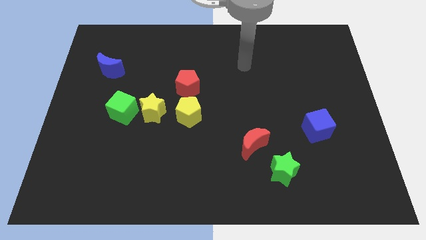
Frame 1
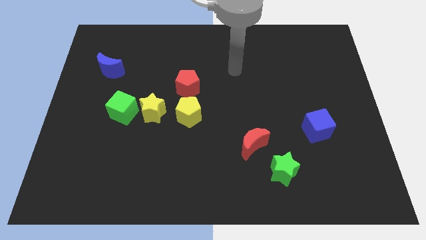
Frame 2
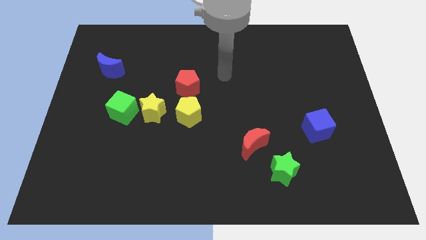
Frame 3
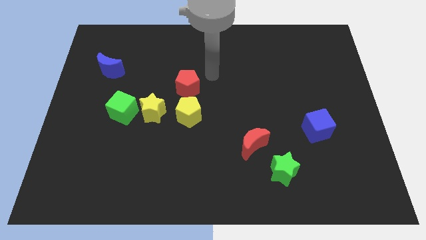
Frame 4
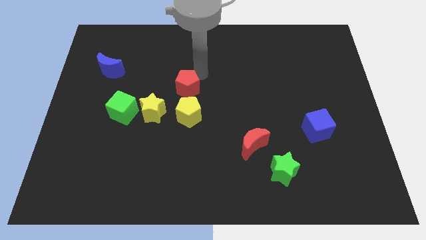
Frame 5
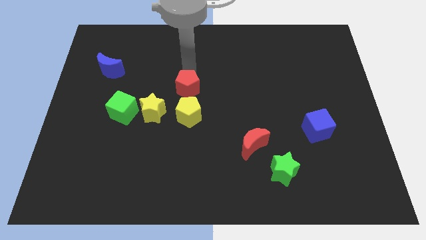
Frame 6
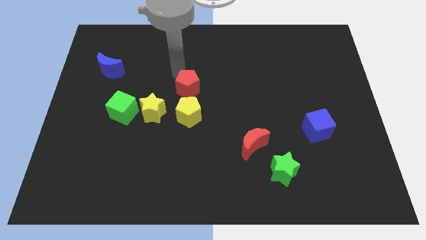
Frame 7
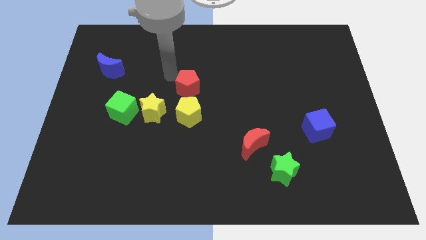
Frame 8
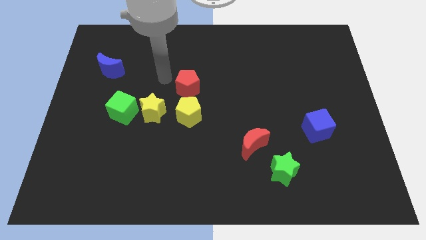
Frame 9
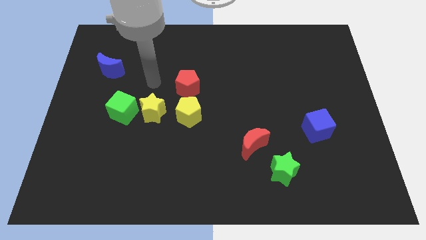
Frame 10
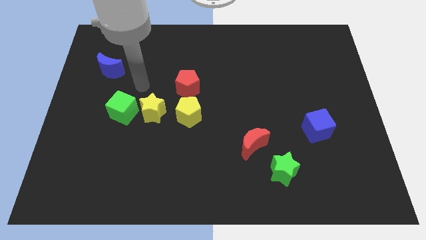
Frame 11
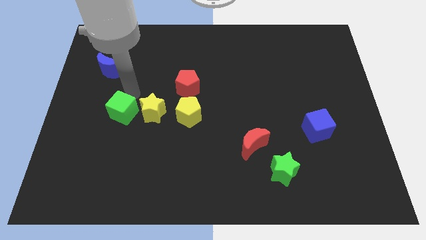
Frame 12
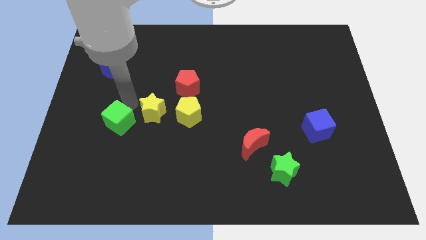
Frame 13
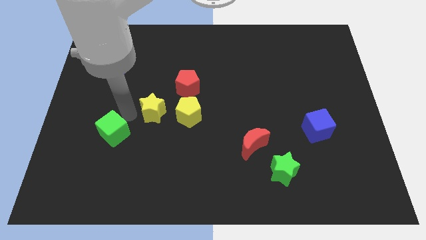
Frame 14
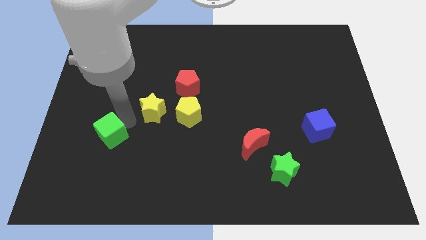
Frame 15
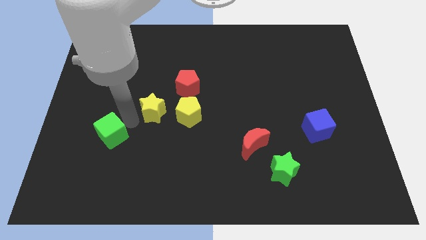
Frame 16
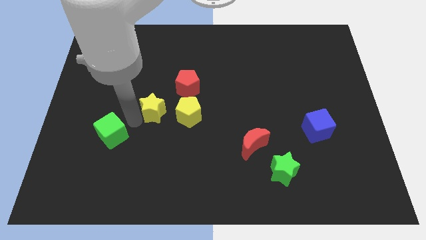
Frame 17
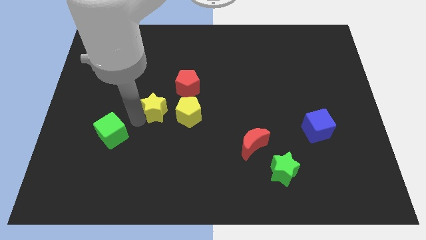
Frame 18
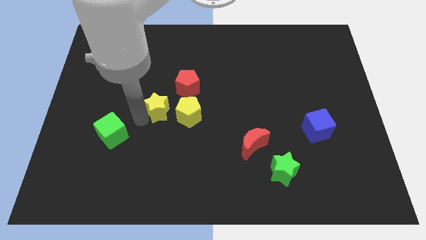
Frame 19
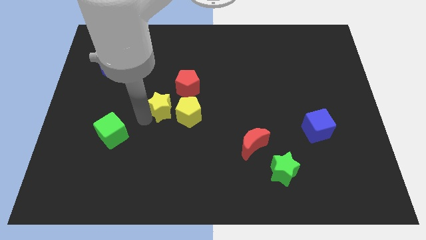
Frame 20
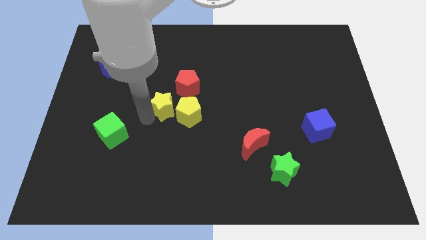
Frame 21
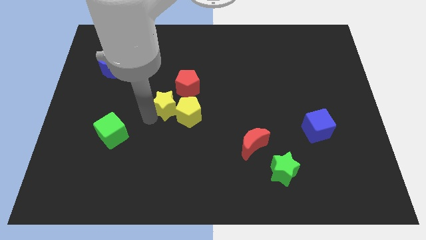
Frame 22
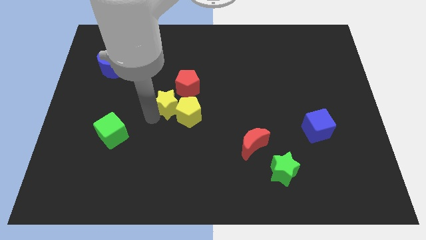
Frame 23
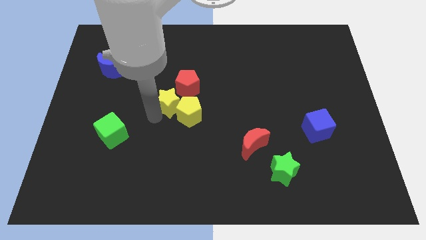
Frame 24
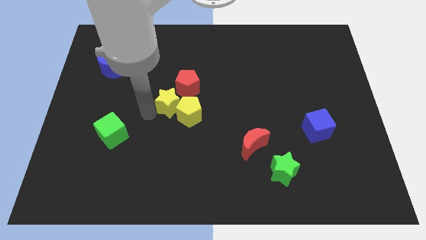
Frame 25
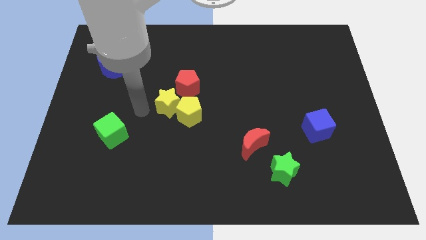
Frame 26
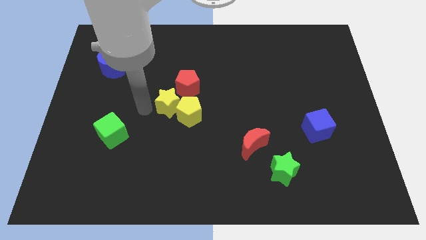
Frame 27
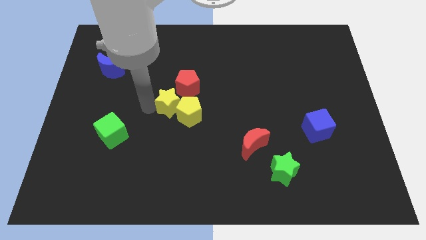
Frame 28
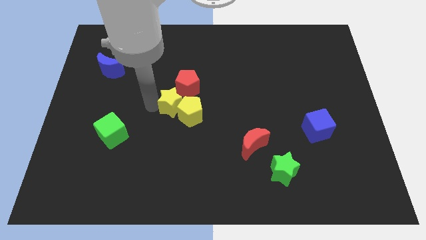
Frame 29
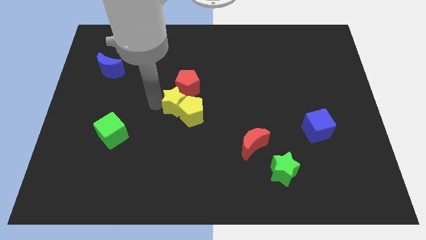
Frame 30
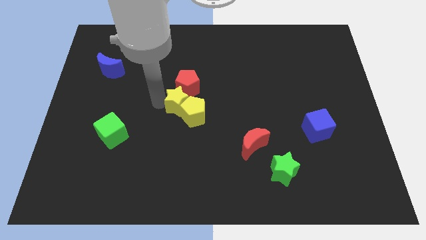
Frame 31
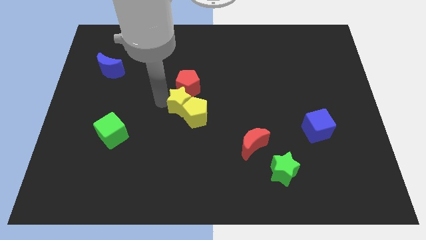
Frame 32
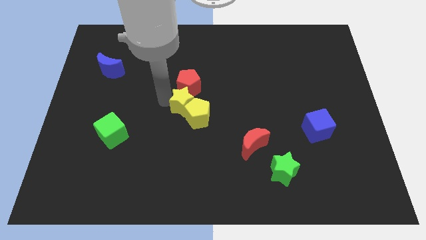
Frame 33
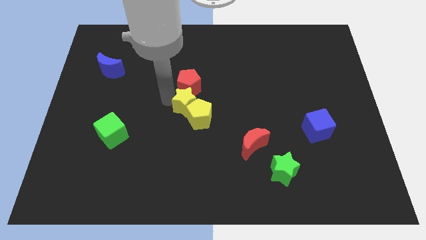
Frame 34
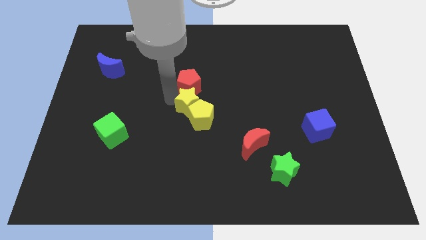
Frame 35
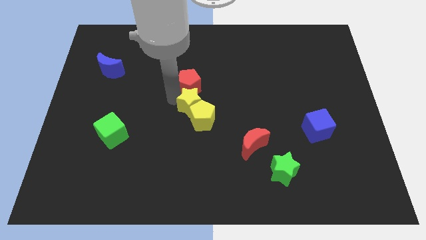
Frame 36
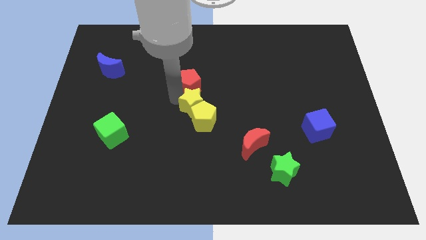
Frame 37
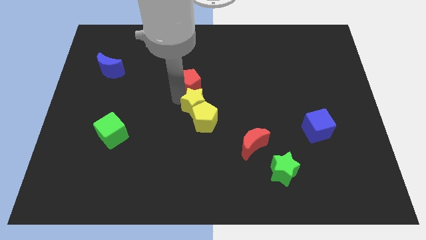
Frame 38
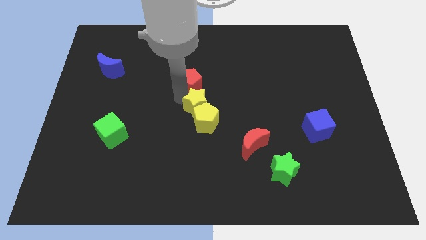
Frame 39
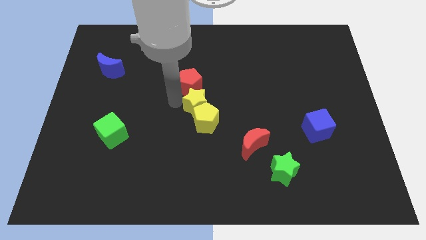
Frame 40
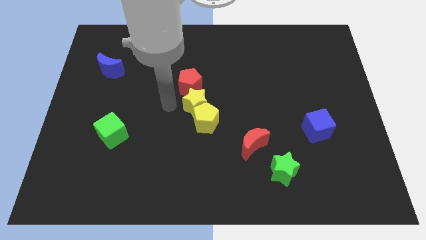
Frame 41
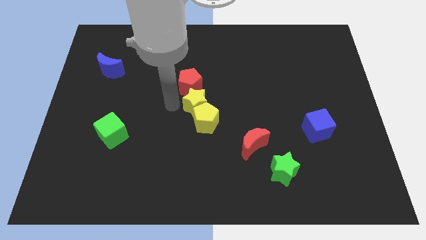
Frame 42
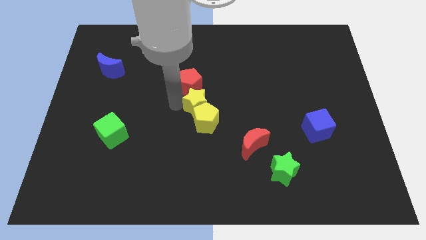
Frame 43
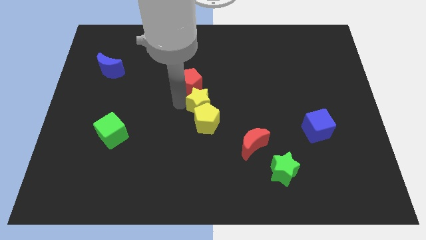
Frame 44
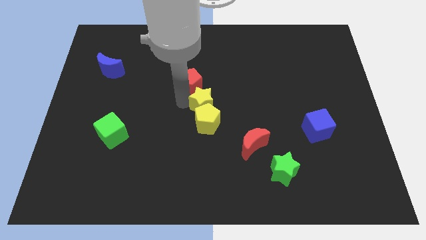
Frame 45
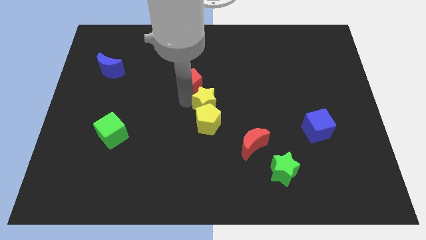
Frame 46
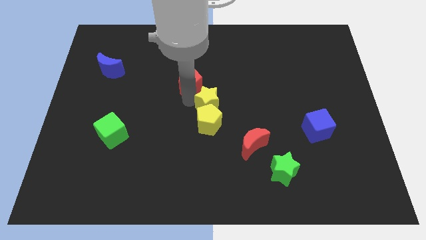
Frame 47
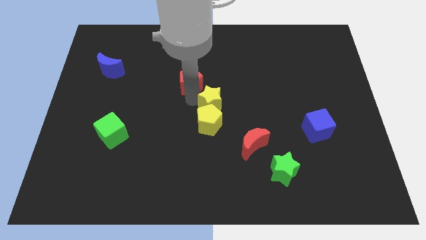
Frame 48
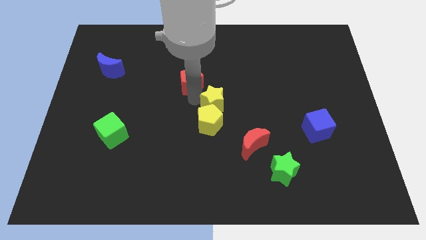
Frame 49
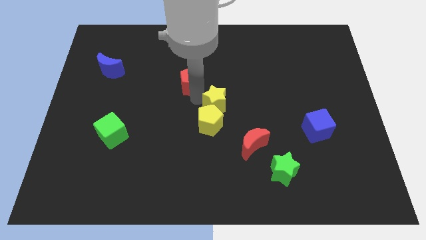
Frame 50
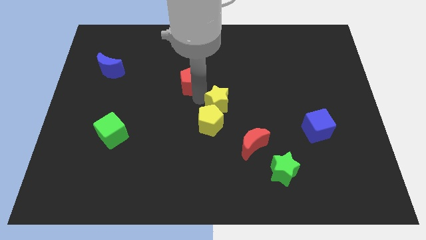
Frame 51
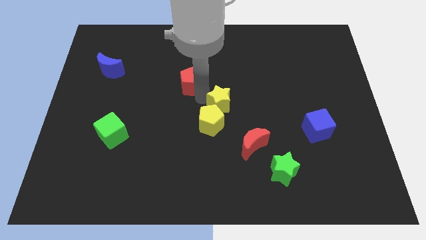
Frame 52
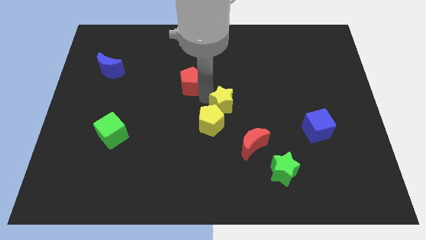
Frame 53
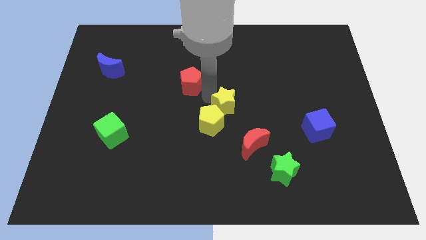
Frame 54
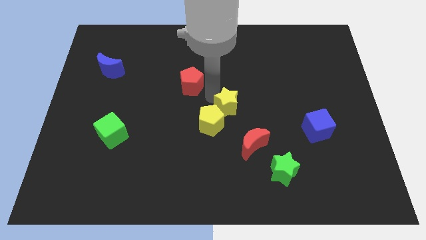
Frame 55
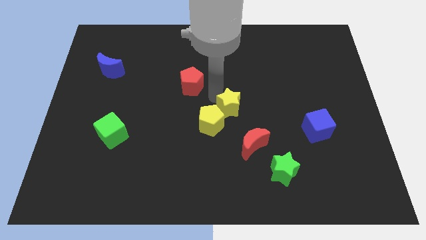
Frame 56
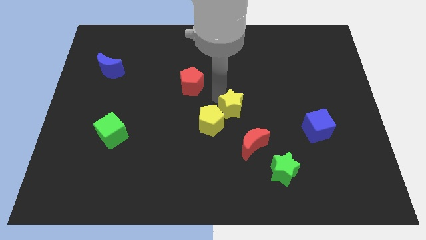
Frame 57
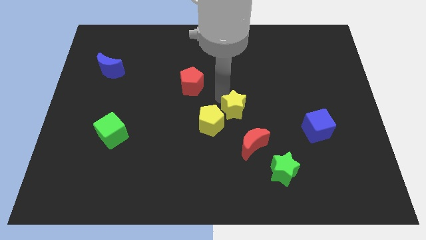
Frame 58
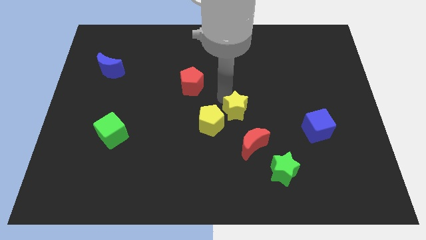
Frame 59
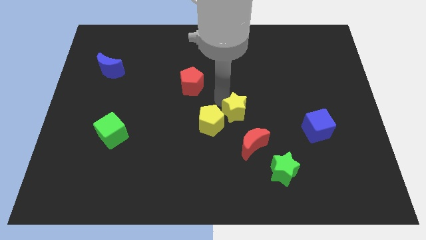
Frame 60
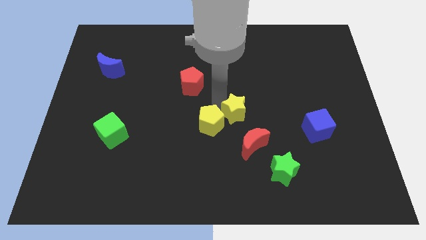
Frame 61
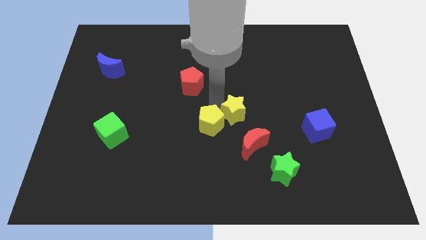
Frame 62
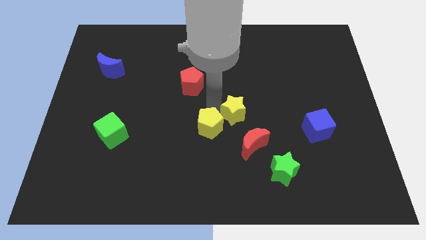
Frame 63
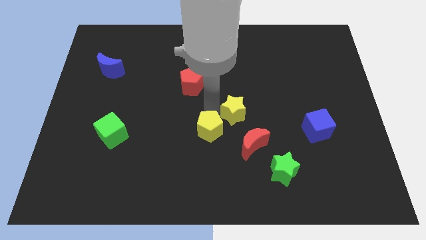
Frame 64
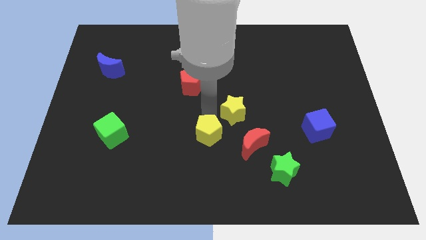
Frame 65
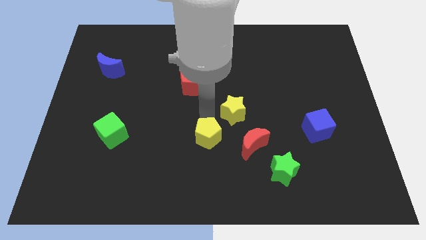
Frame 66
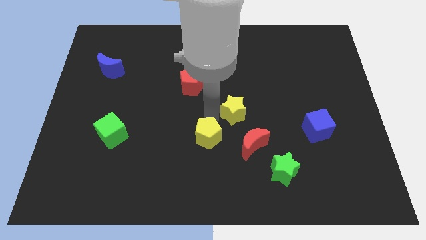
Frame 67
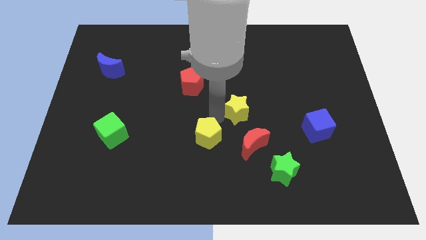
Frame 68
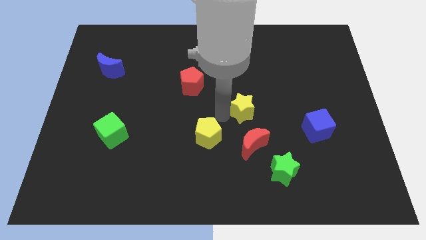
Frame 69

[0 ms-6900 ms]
move the yellow star to the right

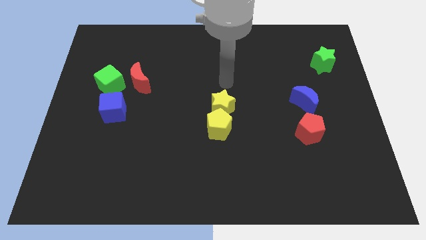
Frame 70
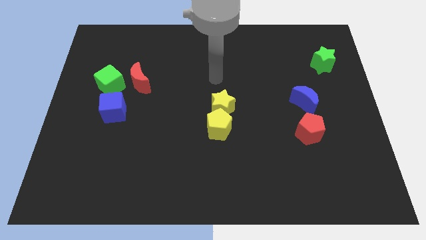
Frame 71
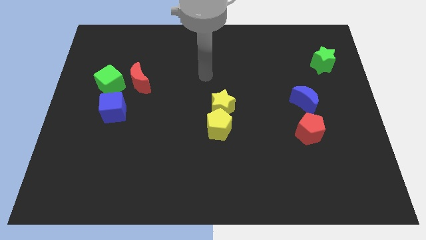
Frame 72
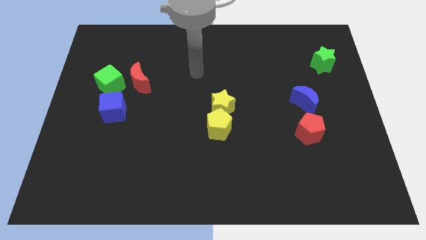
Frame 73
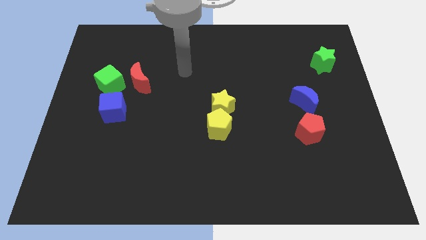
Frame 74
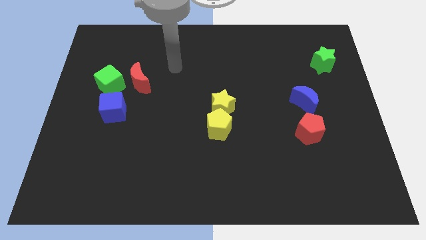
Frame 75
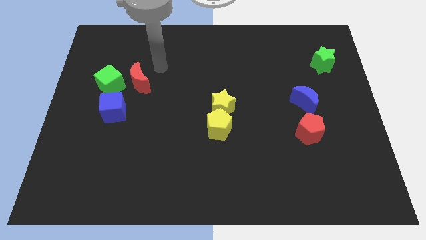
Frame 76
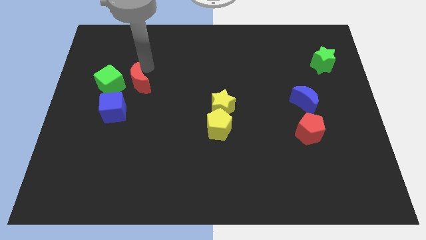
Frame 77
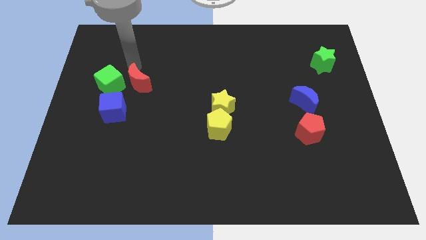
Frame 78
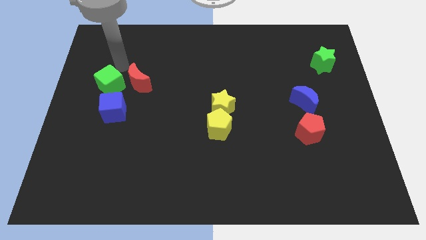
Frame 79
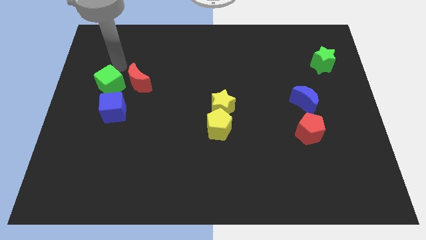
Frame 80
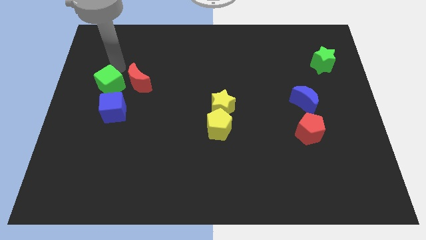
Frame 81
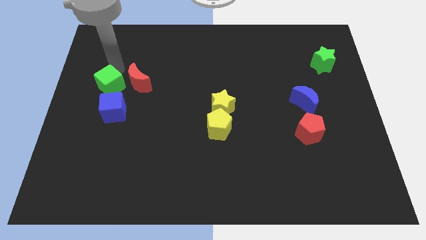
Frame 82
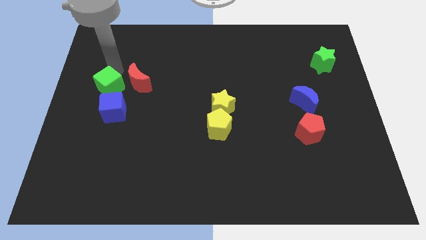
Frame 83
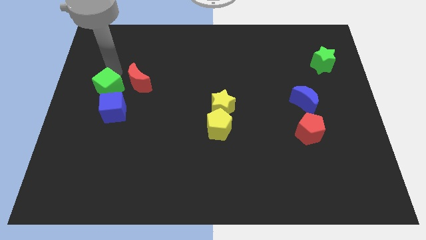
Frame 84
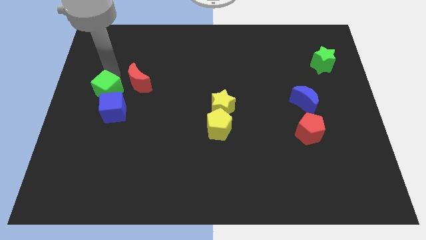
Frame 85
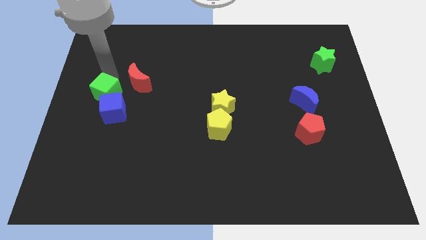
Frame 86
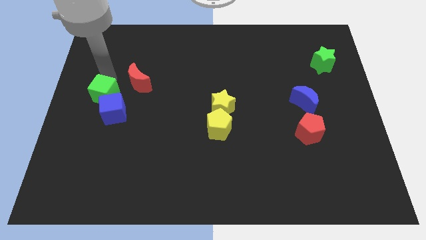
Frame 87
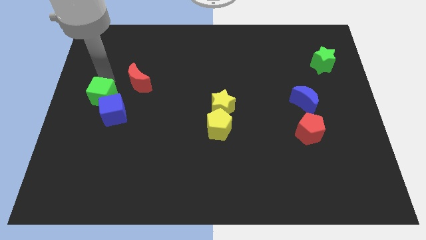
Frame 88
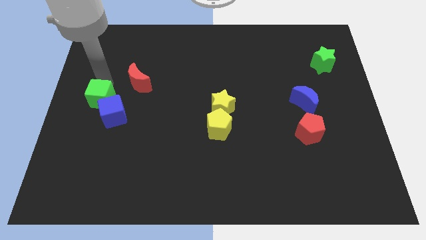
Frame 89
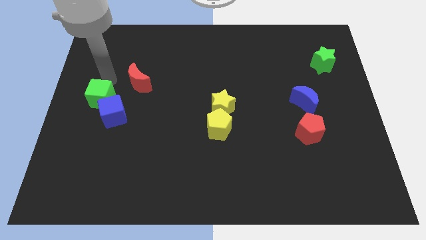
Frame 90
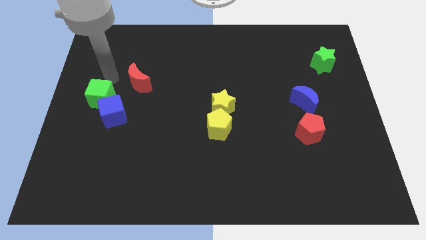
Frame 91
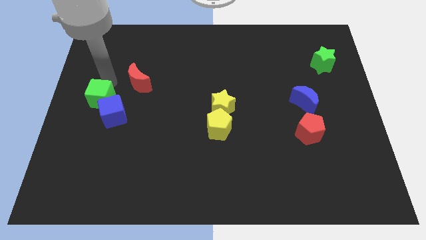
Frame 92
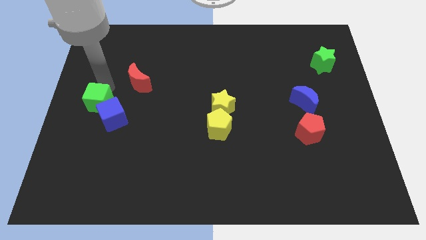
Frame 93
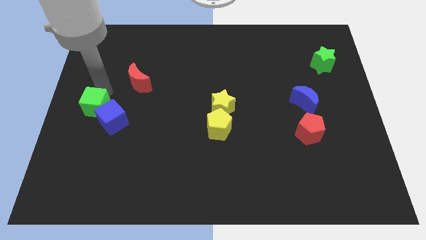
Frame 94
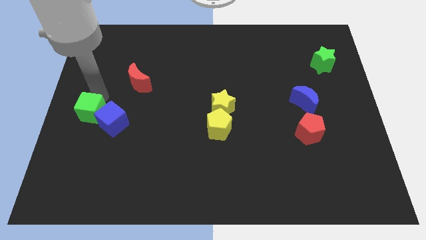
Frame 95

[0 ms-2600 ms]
slightly slide the green cube downwards
